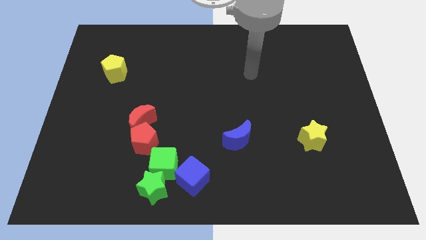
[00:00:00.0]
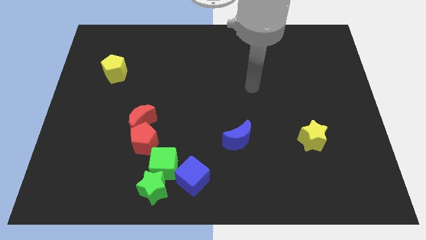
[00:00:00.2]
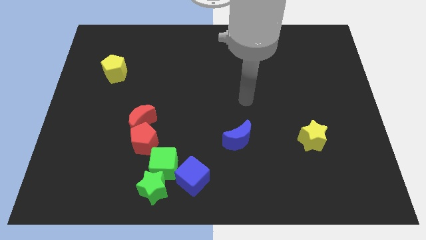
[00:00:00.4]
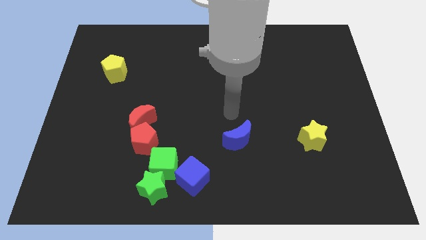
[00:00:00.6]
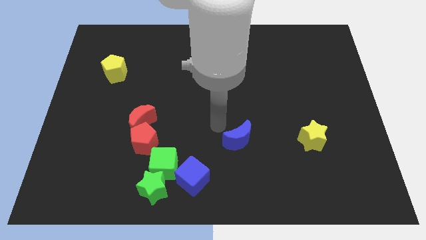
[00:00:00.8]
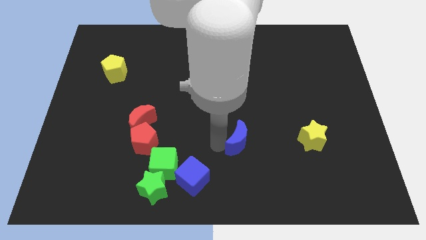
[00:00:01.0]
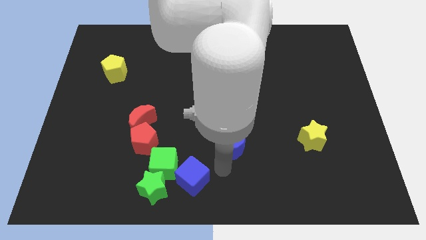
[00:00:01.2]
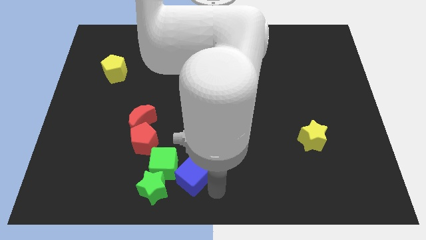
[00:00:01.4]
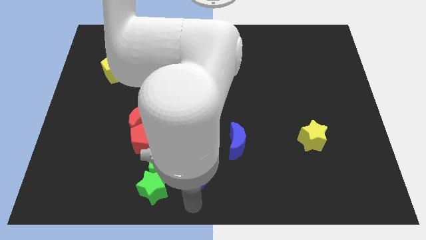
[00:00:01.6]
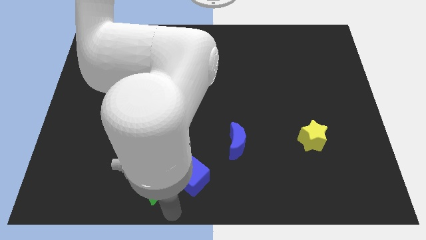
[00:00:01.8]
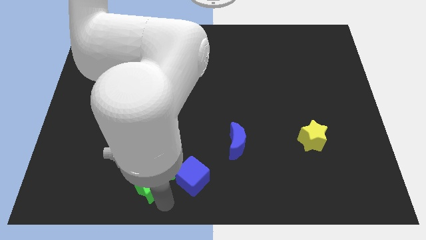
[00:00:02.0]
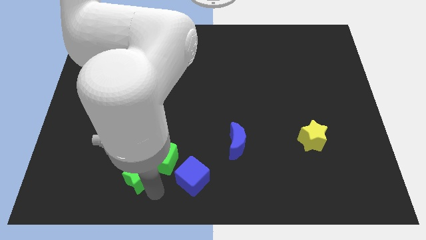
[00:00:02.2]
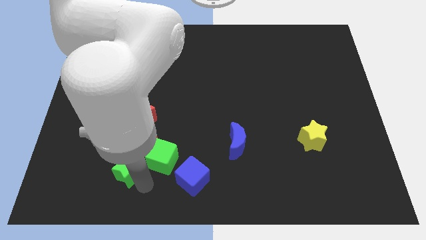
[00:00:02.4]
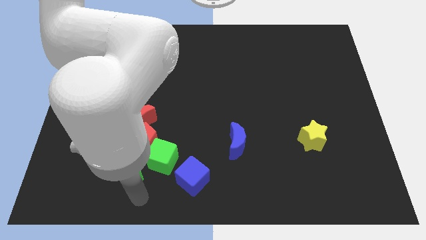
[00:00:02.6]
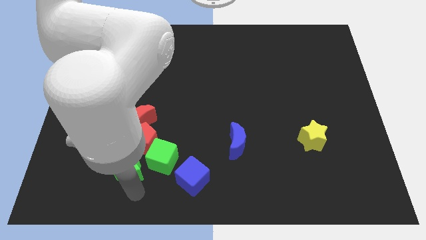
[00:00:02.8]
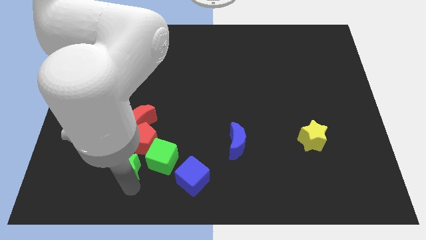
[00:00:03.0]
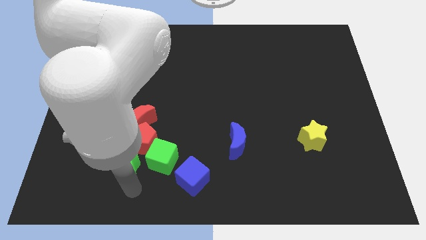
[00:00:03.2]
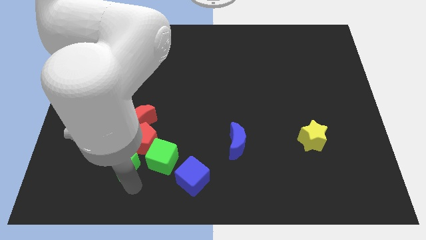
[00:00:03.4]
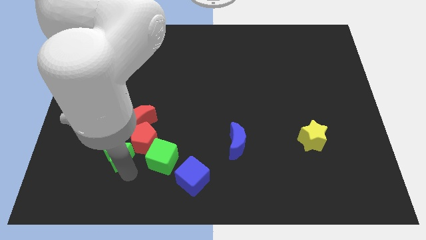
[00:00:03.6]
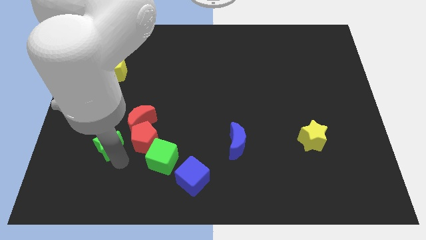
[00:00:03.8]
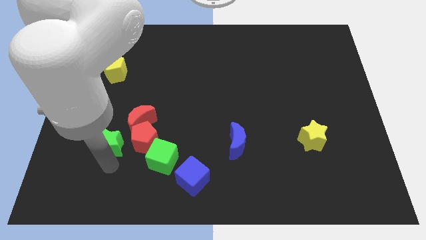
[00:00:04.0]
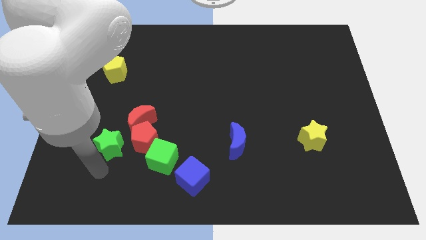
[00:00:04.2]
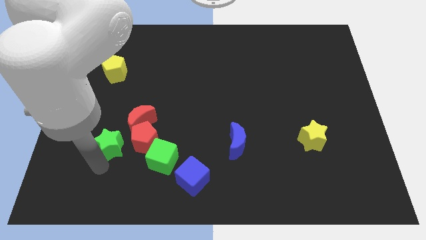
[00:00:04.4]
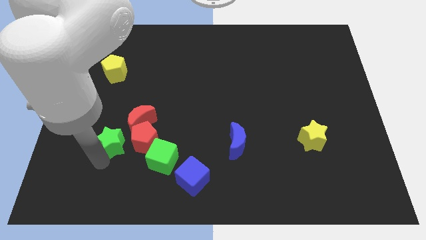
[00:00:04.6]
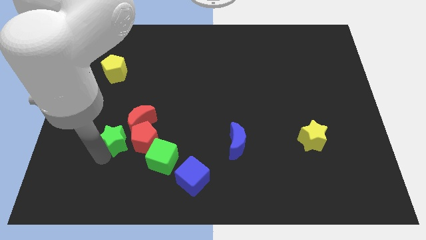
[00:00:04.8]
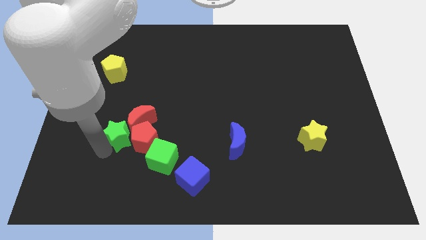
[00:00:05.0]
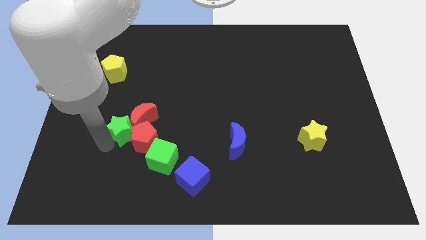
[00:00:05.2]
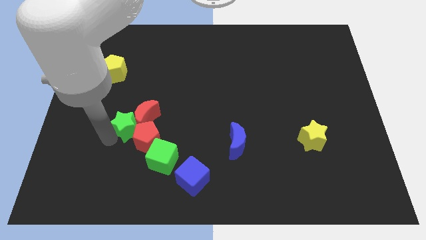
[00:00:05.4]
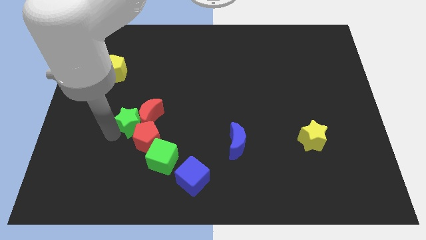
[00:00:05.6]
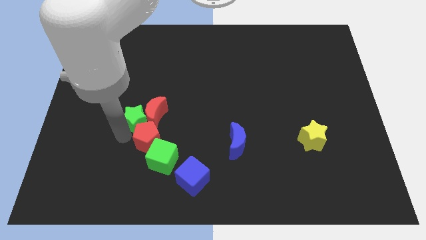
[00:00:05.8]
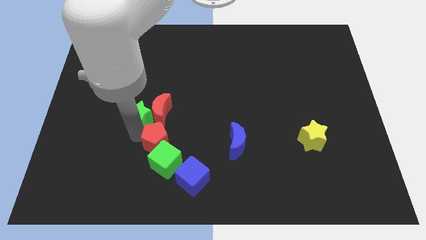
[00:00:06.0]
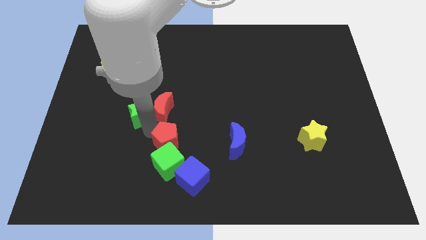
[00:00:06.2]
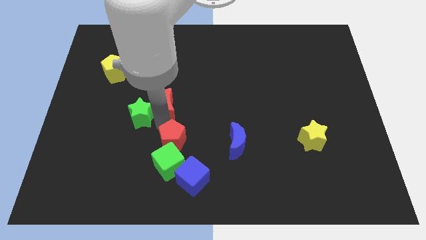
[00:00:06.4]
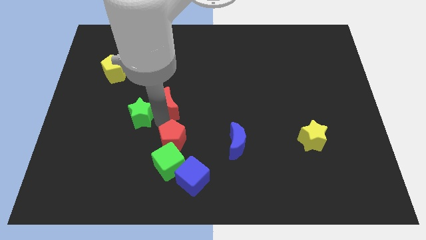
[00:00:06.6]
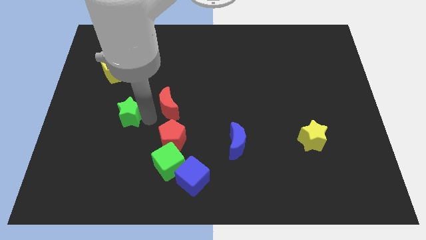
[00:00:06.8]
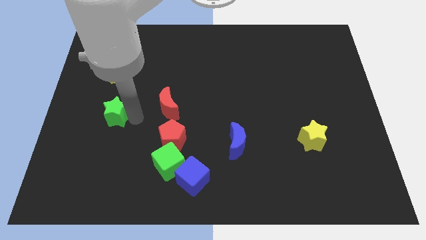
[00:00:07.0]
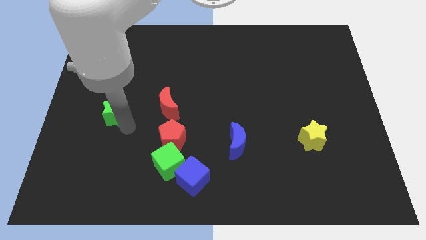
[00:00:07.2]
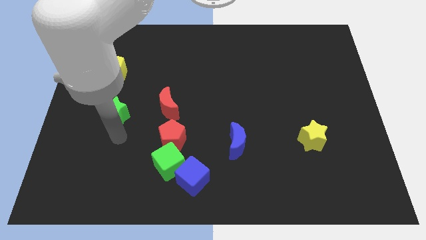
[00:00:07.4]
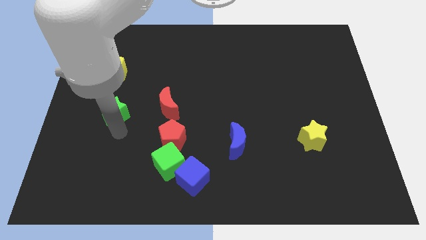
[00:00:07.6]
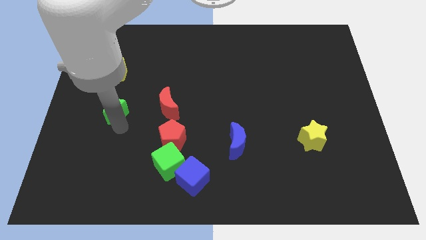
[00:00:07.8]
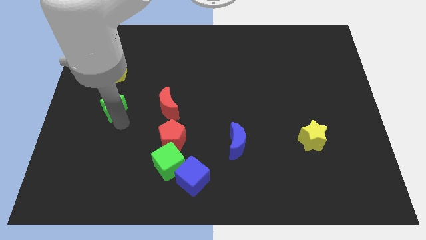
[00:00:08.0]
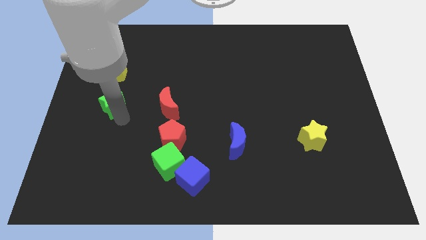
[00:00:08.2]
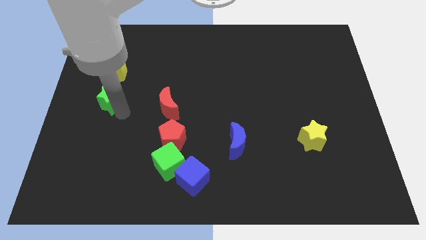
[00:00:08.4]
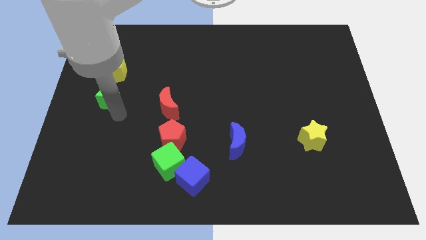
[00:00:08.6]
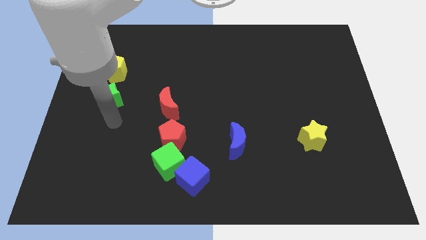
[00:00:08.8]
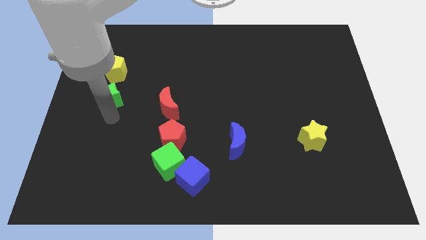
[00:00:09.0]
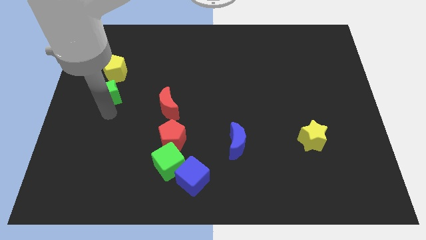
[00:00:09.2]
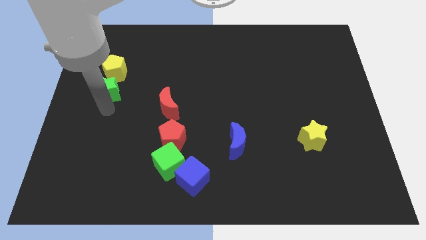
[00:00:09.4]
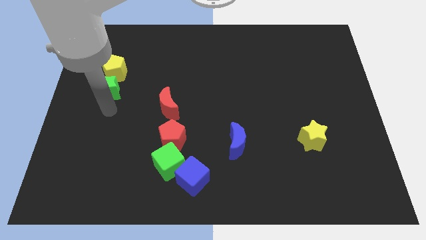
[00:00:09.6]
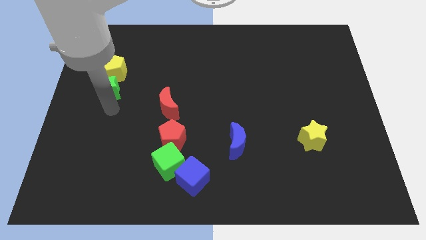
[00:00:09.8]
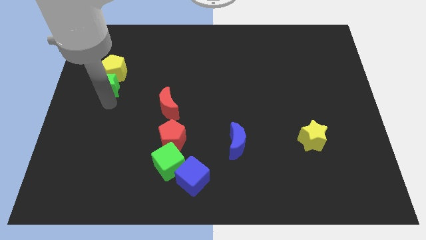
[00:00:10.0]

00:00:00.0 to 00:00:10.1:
push the green star next to the yellow pentagon

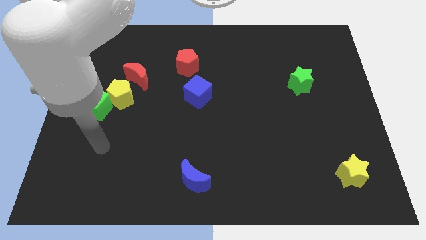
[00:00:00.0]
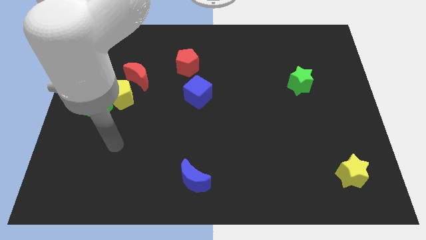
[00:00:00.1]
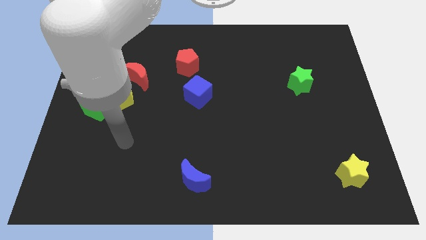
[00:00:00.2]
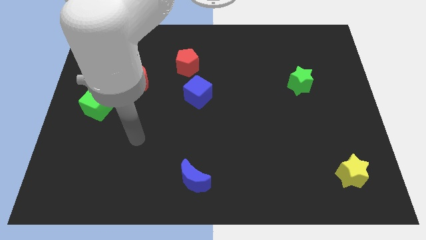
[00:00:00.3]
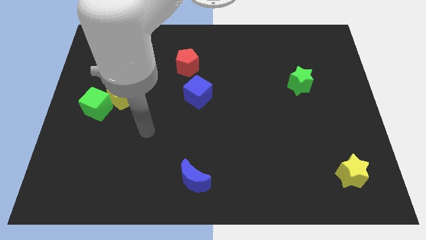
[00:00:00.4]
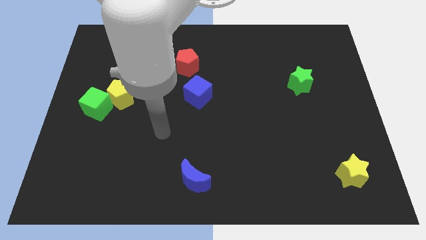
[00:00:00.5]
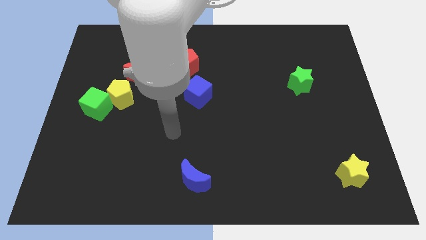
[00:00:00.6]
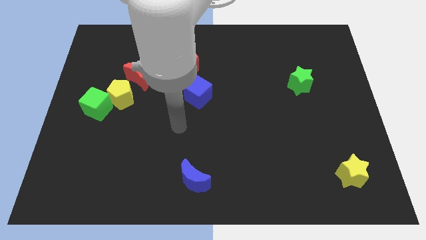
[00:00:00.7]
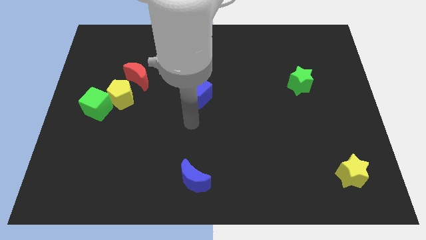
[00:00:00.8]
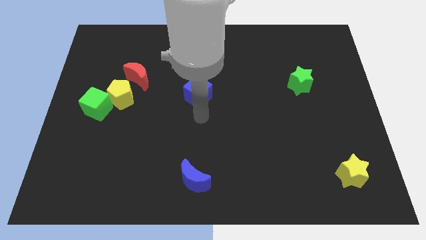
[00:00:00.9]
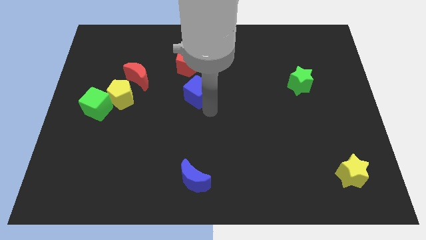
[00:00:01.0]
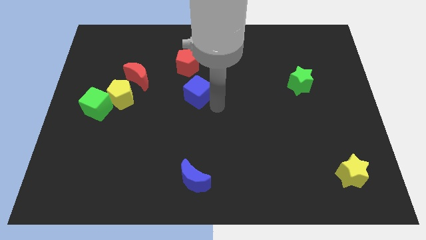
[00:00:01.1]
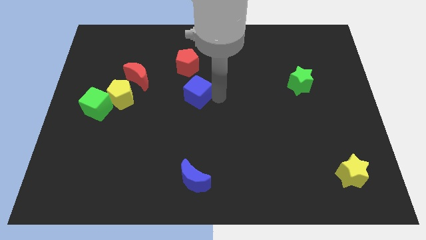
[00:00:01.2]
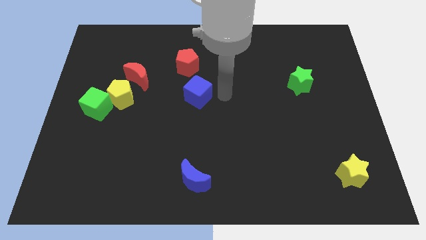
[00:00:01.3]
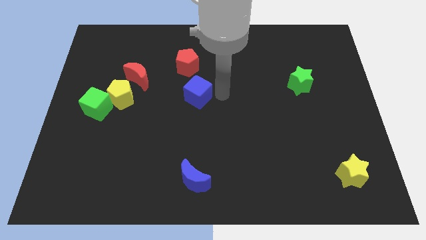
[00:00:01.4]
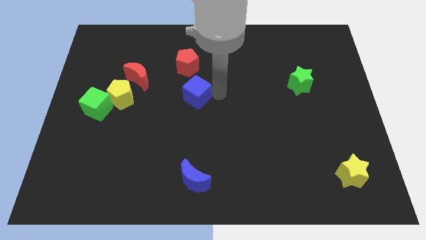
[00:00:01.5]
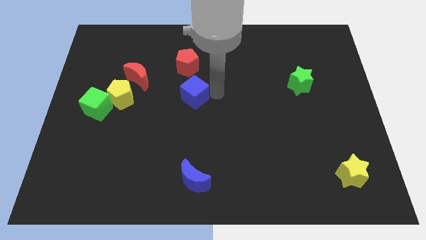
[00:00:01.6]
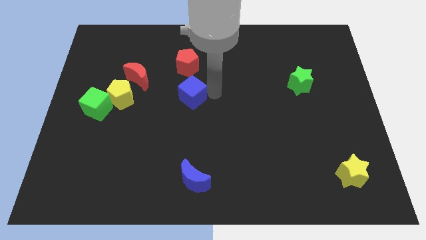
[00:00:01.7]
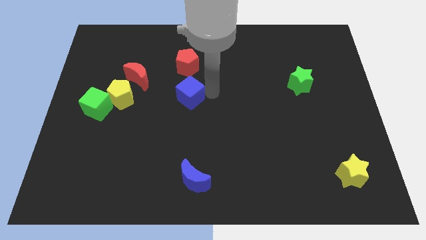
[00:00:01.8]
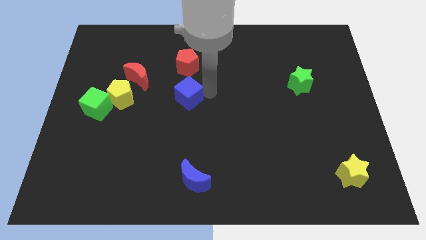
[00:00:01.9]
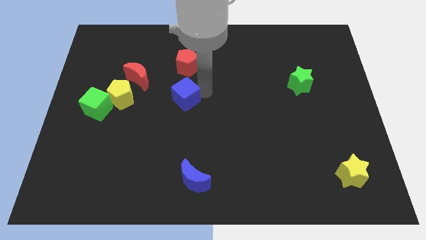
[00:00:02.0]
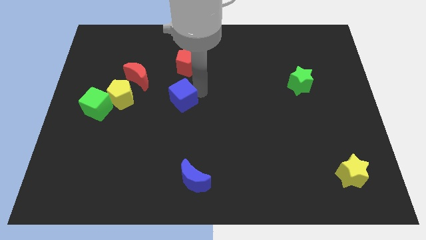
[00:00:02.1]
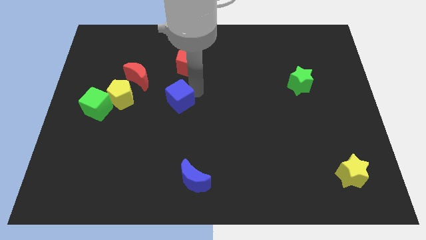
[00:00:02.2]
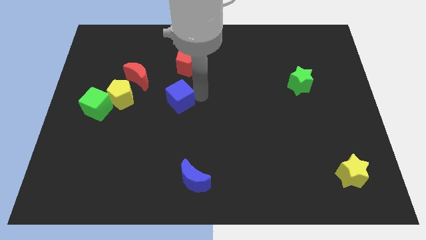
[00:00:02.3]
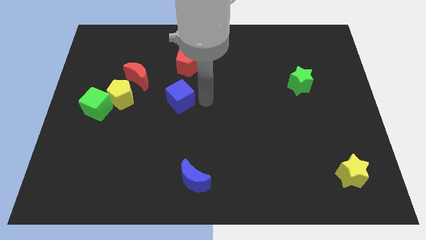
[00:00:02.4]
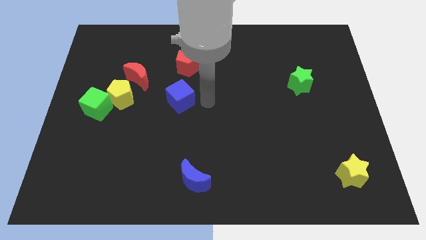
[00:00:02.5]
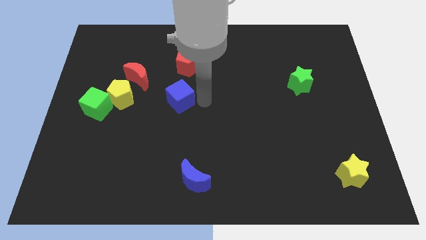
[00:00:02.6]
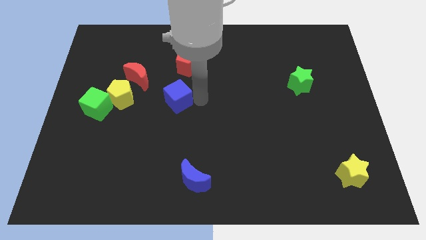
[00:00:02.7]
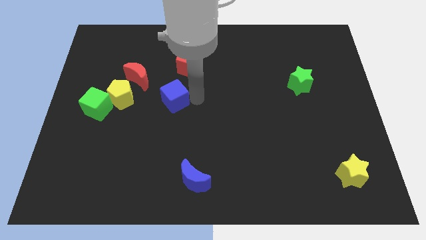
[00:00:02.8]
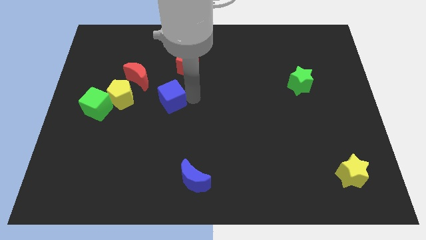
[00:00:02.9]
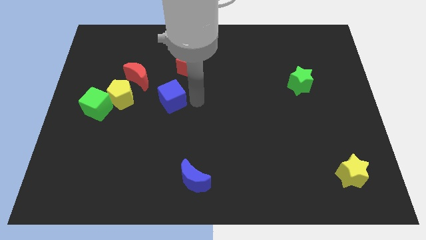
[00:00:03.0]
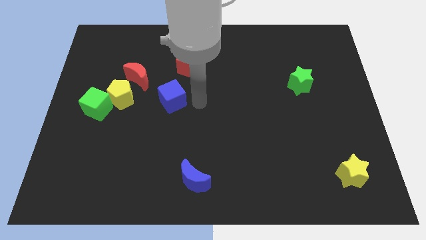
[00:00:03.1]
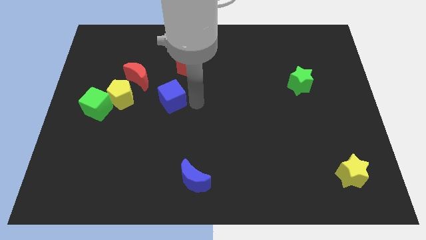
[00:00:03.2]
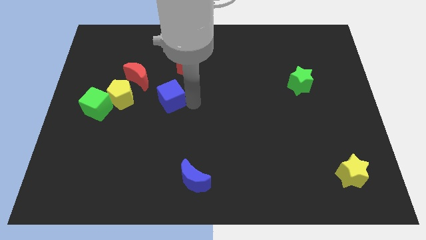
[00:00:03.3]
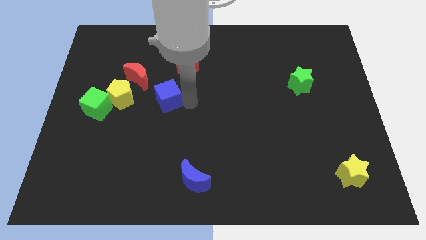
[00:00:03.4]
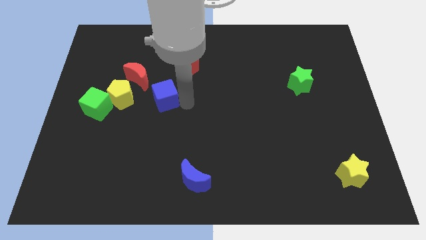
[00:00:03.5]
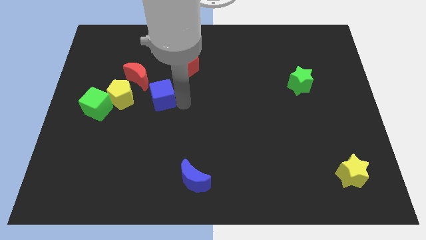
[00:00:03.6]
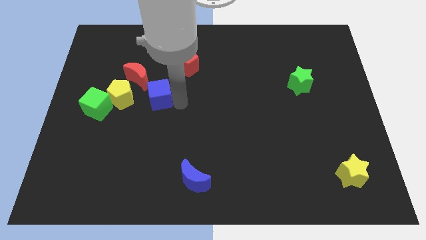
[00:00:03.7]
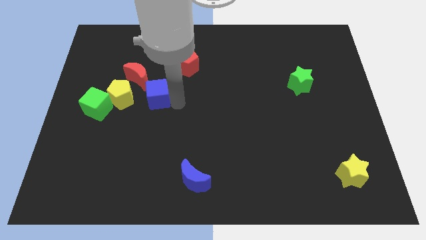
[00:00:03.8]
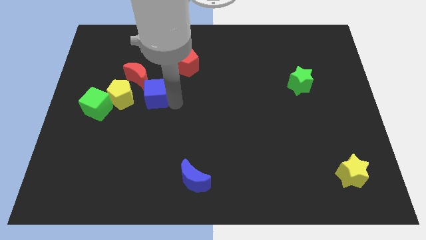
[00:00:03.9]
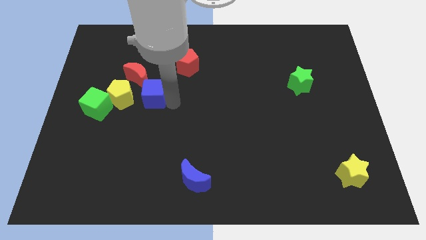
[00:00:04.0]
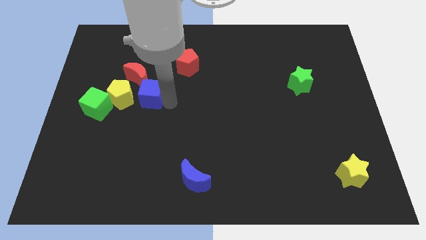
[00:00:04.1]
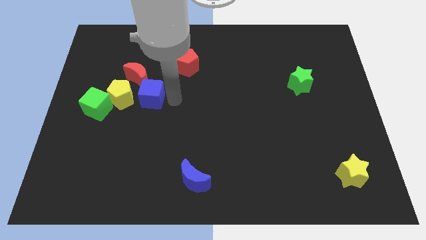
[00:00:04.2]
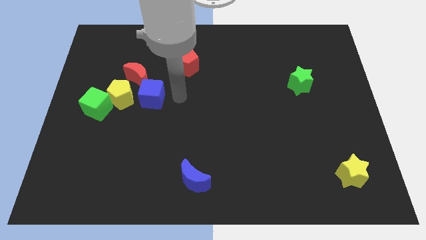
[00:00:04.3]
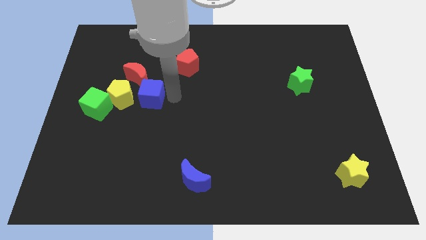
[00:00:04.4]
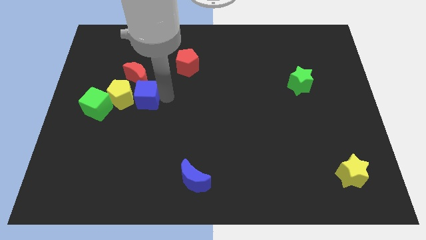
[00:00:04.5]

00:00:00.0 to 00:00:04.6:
put the blue cube close to the yellow pentagon
